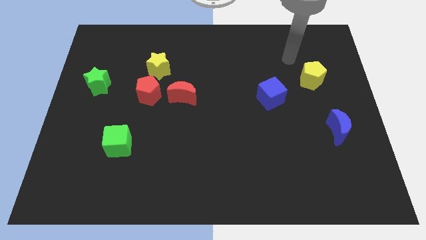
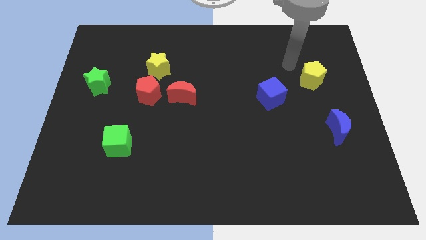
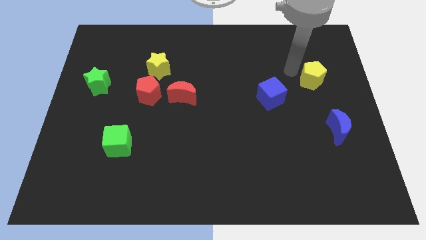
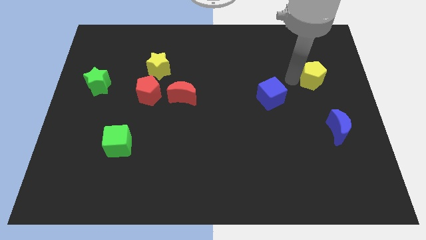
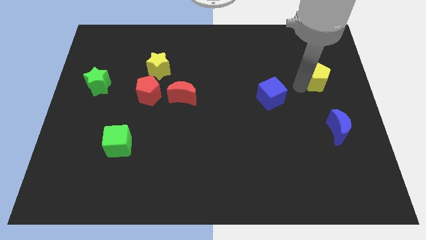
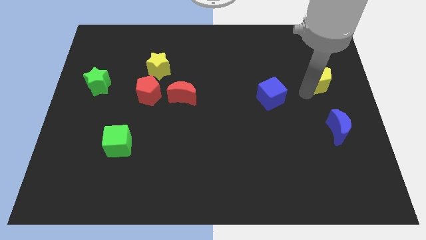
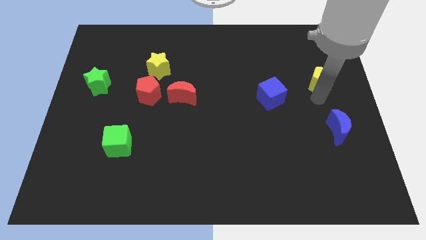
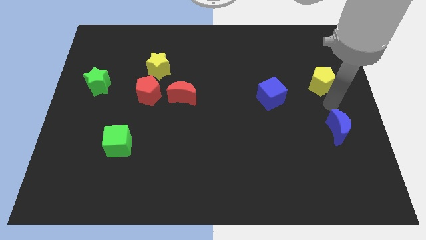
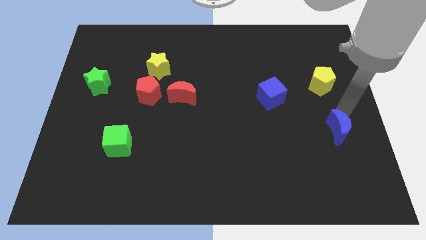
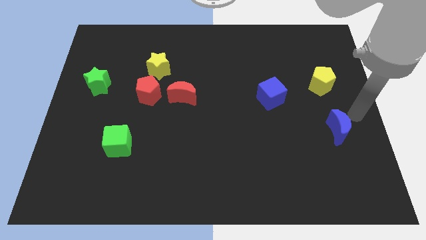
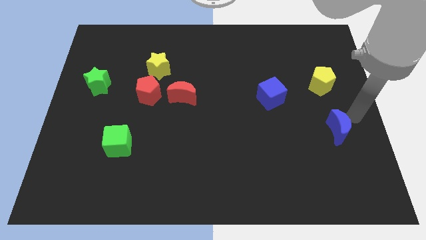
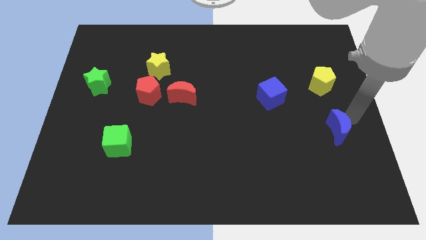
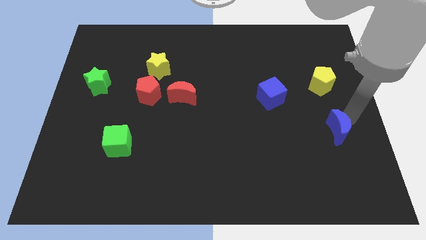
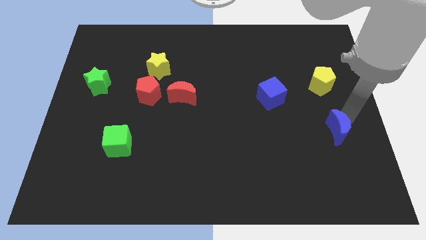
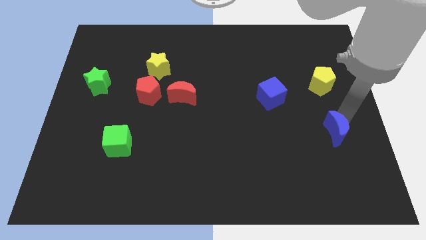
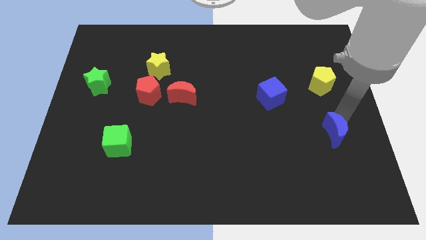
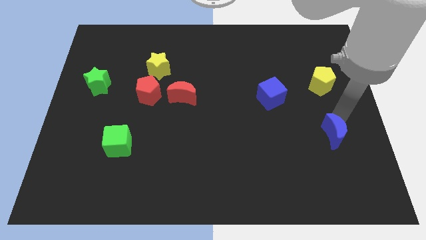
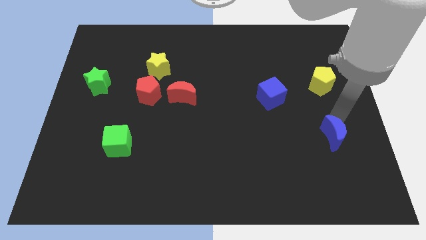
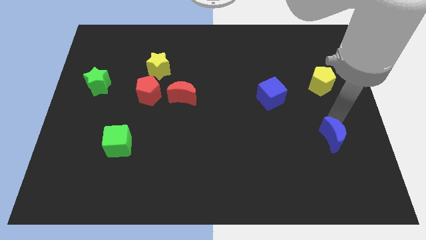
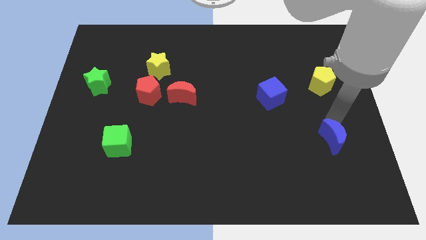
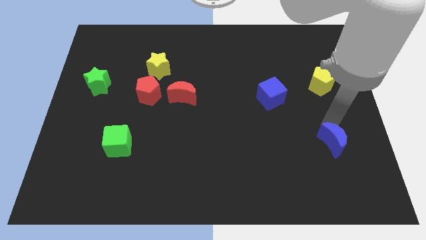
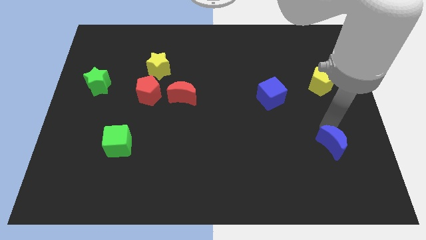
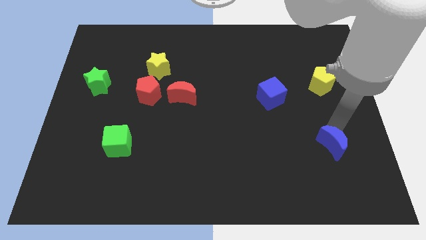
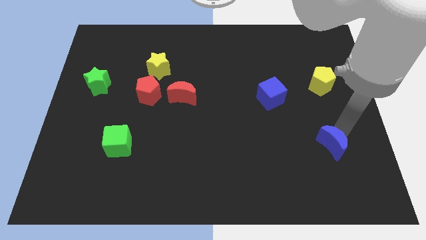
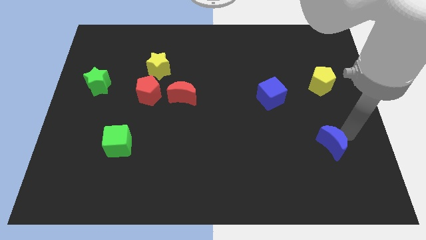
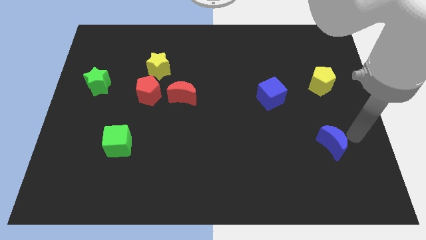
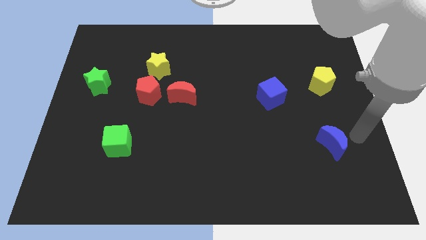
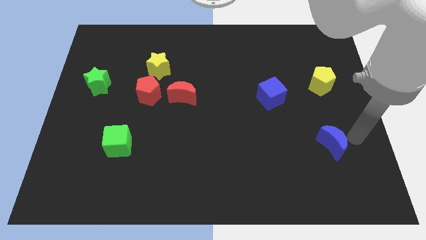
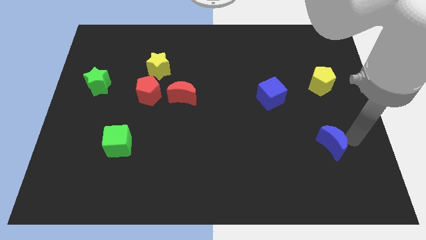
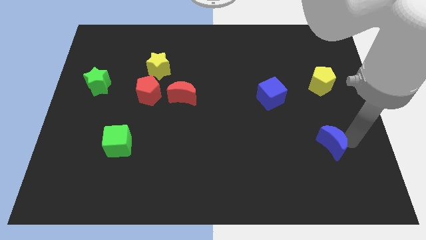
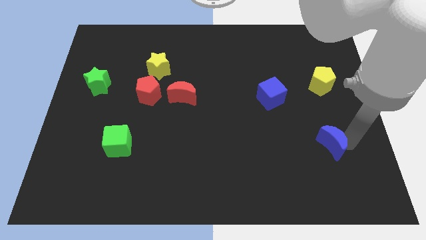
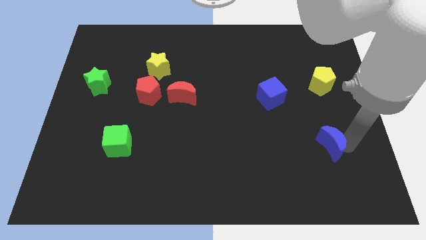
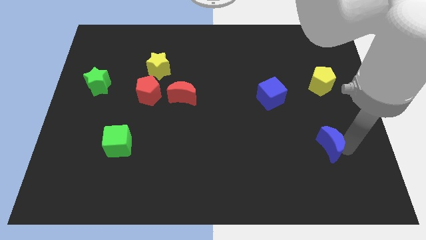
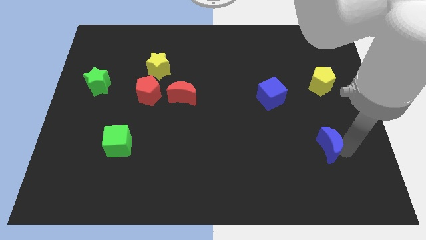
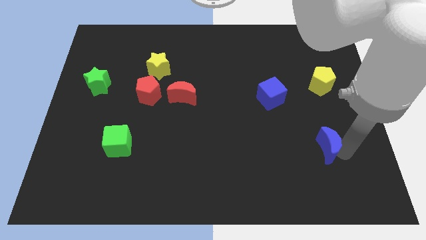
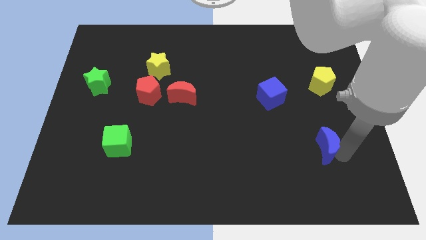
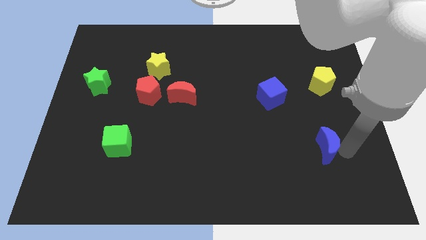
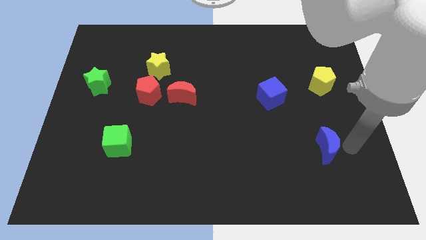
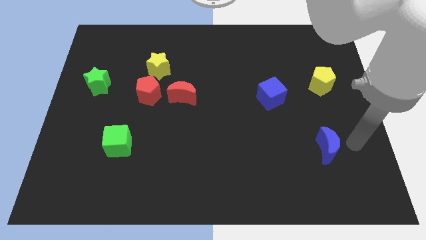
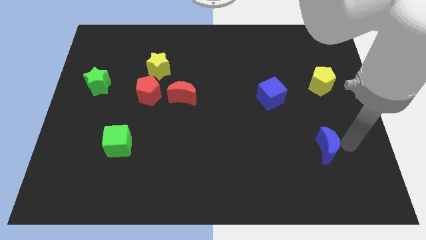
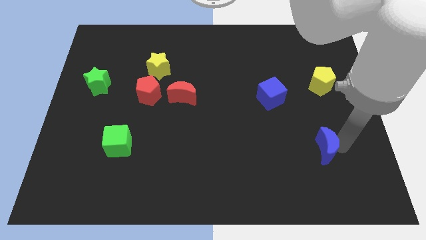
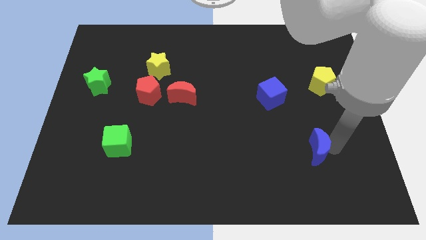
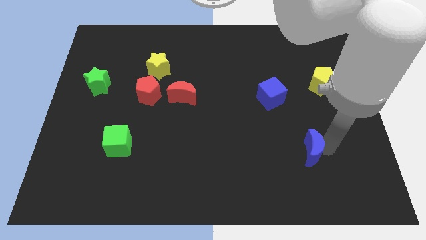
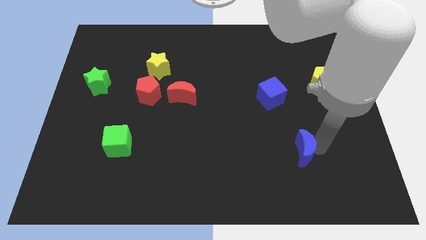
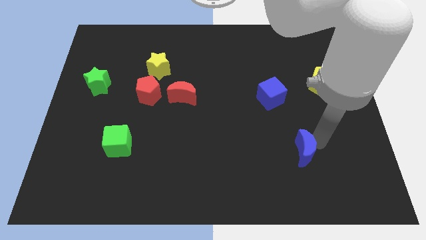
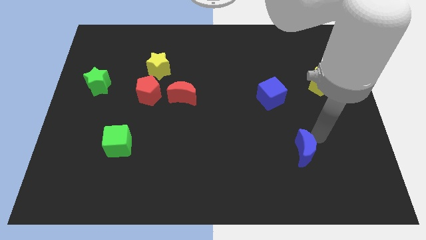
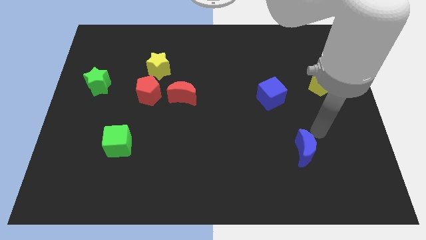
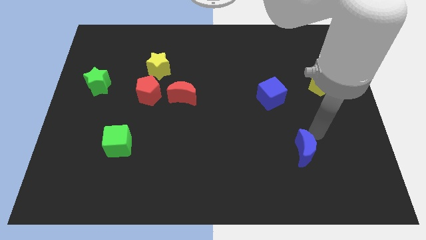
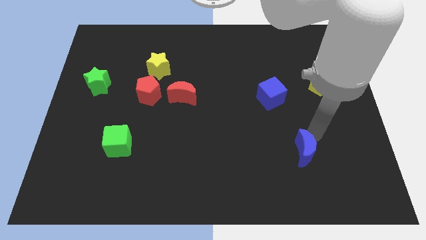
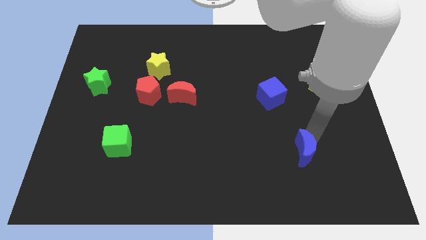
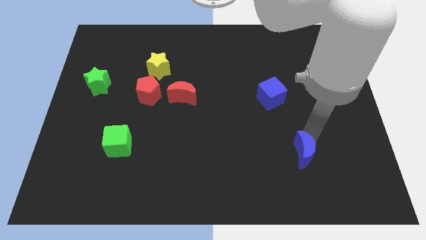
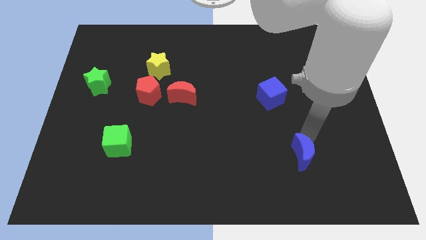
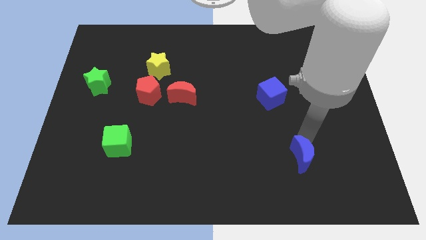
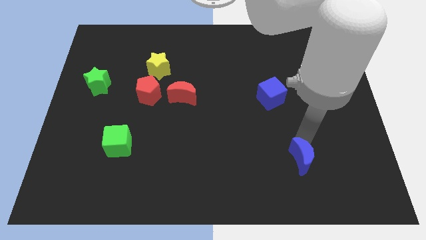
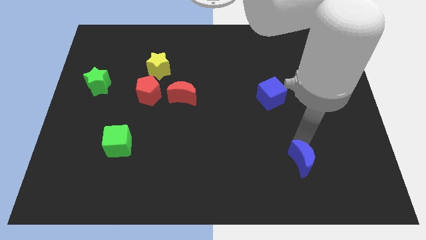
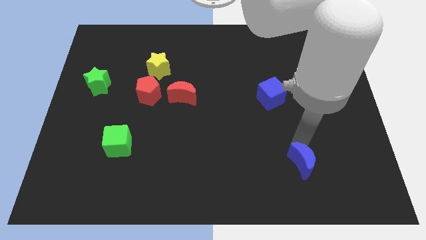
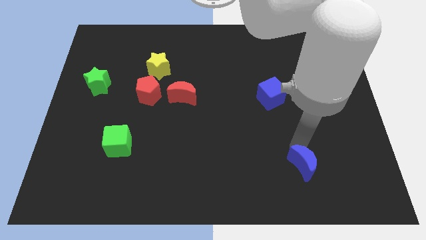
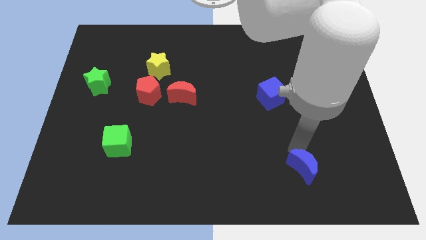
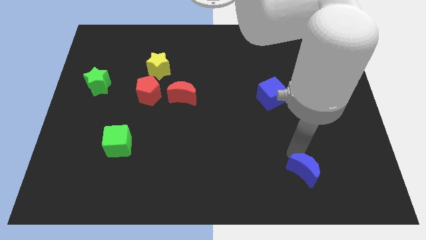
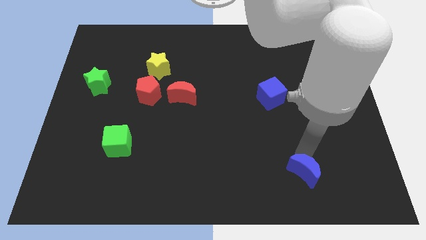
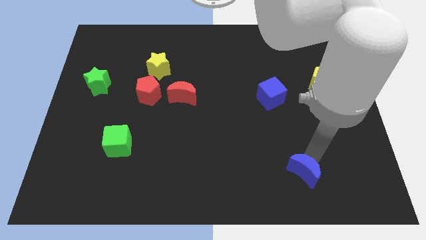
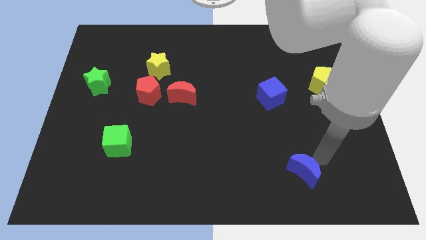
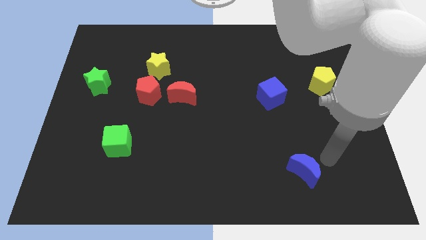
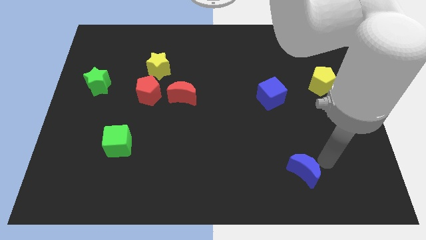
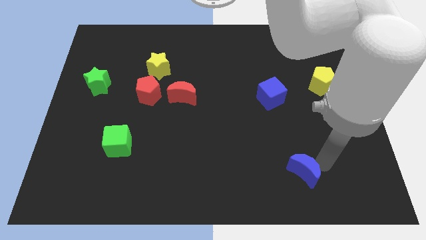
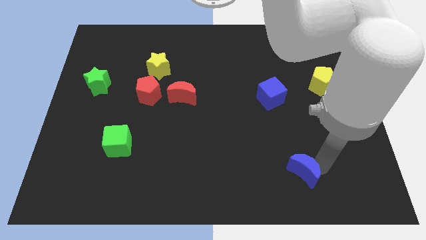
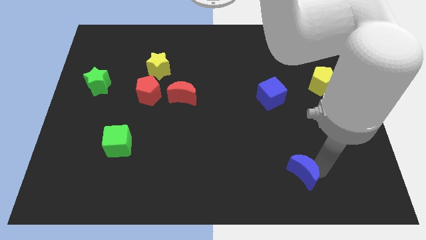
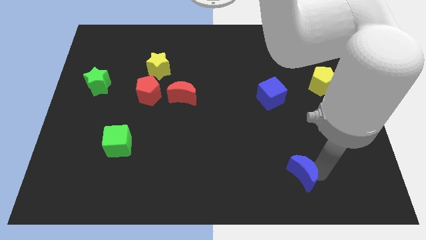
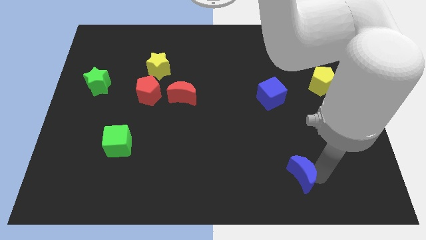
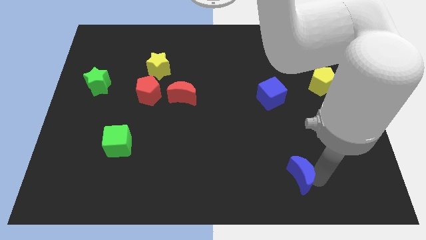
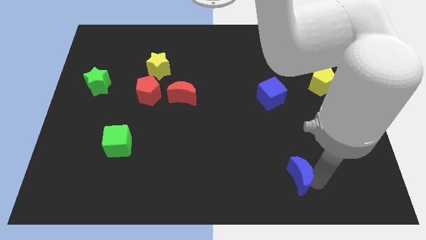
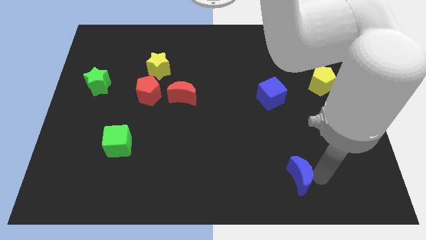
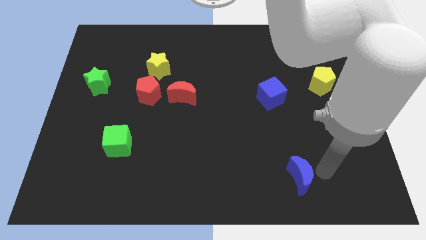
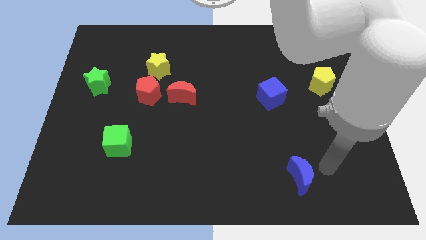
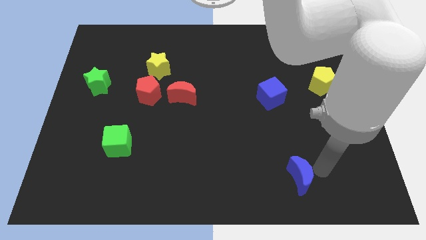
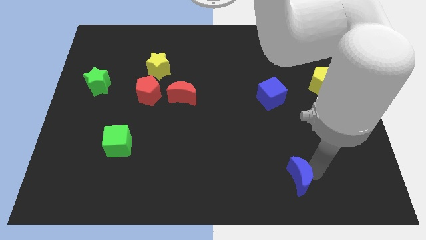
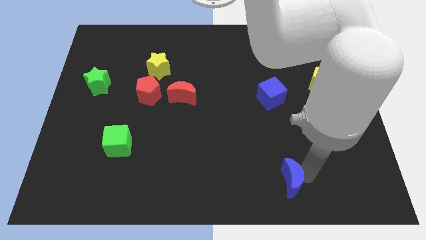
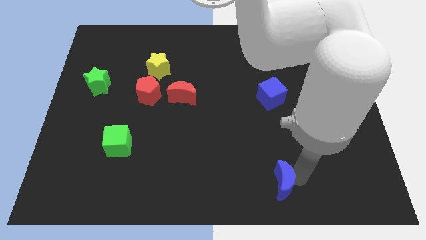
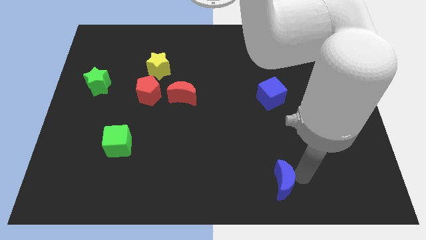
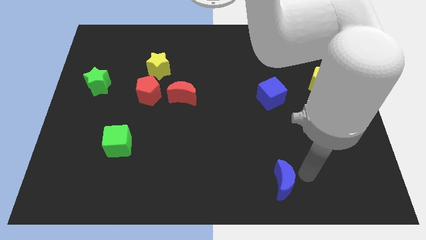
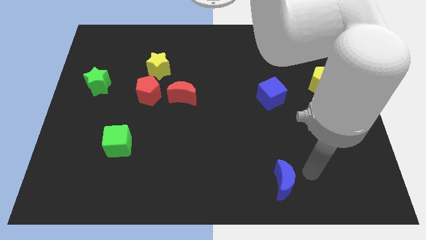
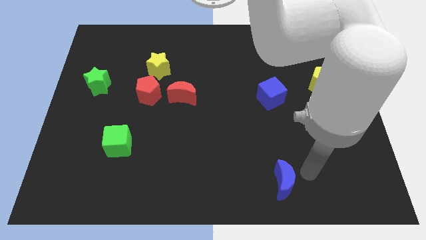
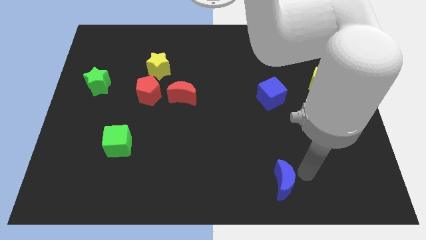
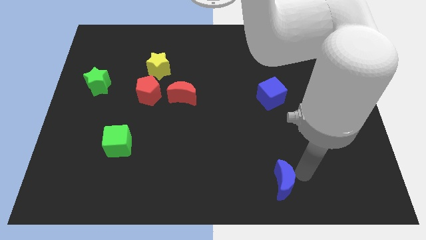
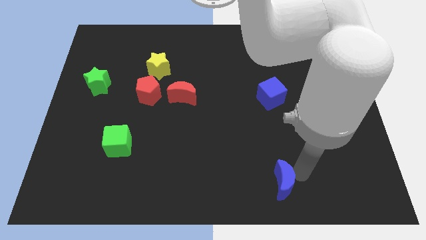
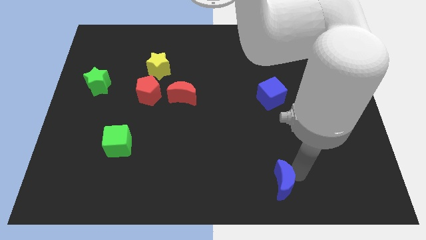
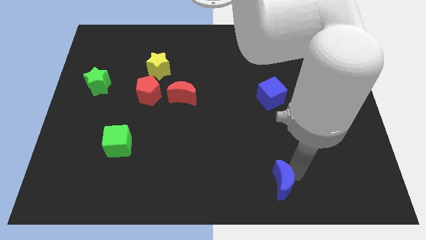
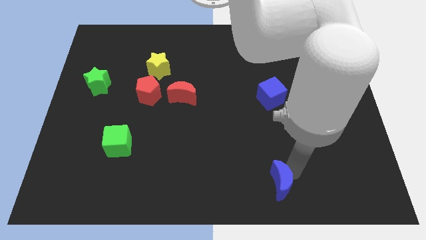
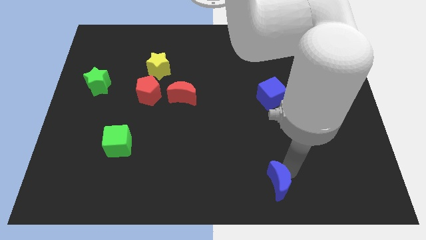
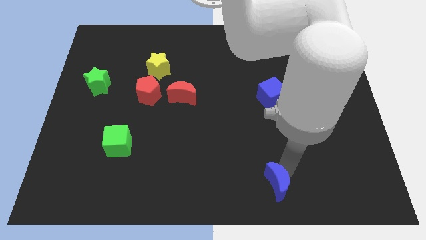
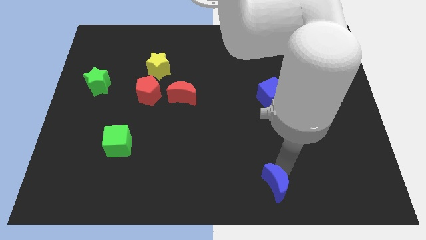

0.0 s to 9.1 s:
slide the blue moon to the bottom
